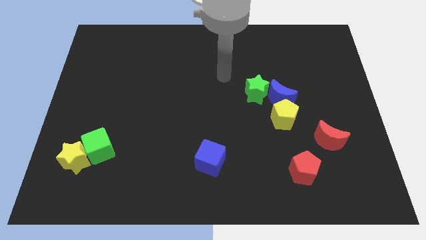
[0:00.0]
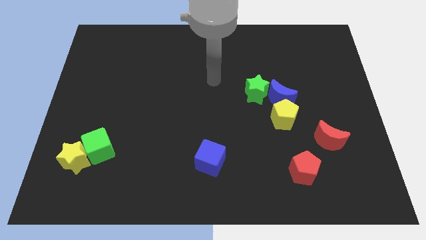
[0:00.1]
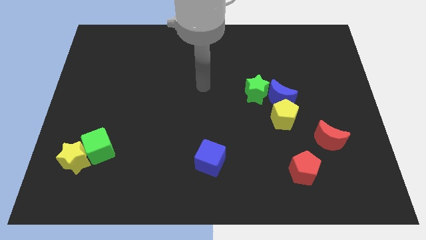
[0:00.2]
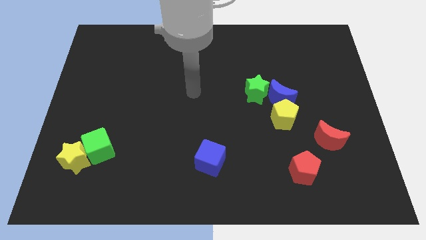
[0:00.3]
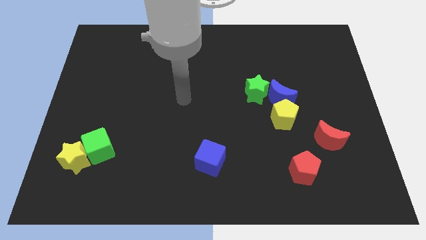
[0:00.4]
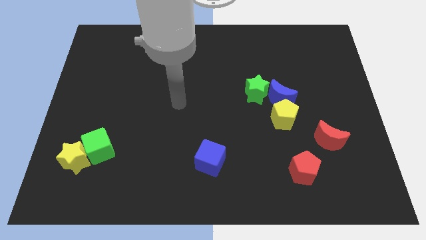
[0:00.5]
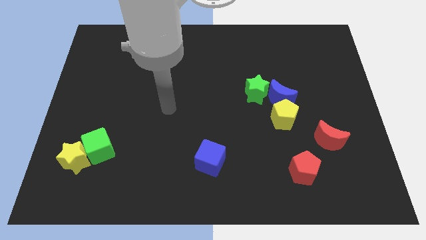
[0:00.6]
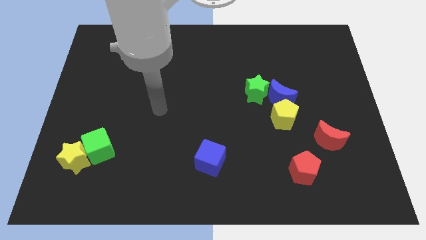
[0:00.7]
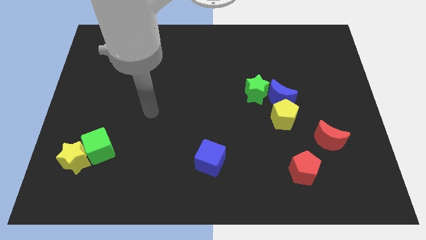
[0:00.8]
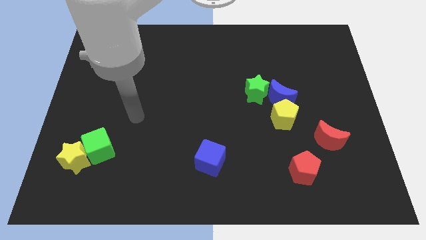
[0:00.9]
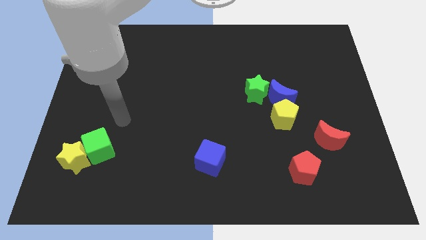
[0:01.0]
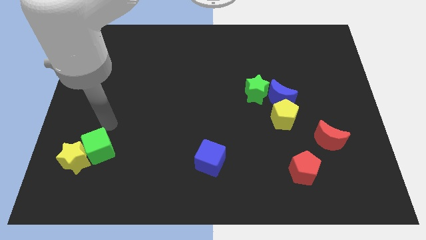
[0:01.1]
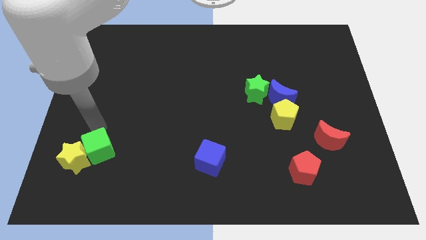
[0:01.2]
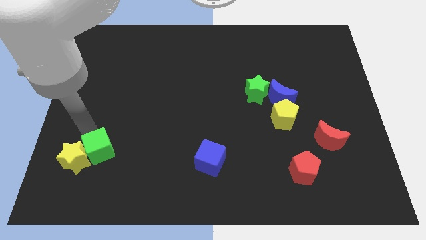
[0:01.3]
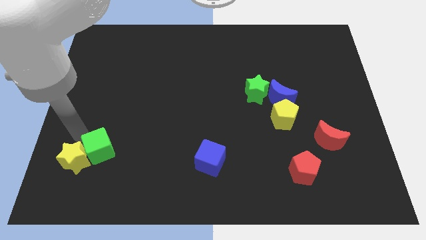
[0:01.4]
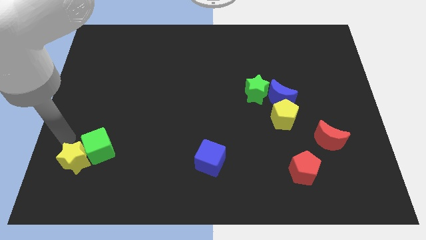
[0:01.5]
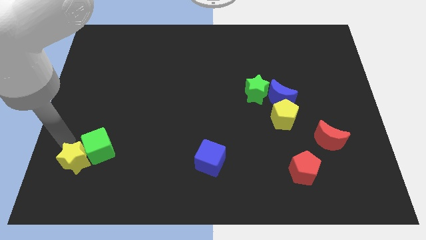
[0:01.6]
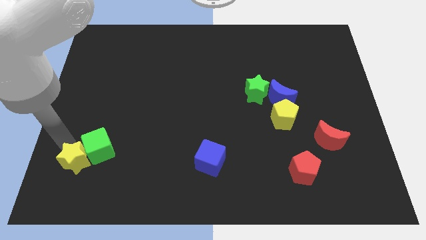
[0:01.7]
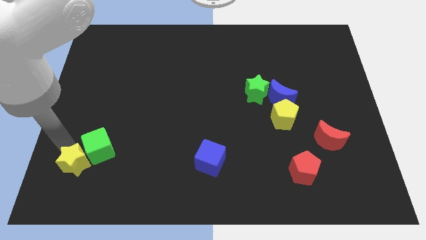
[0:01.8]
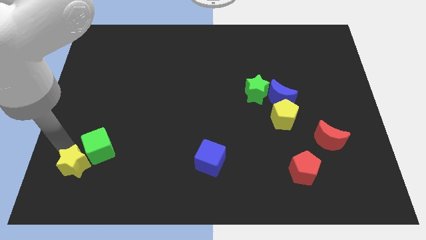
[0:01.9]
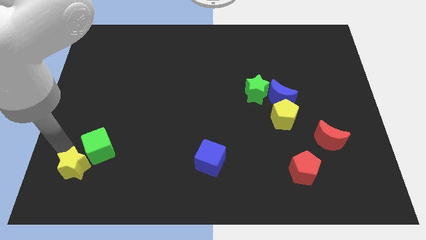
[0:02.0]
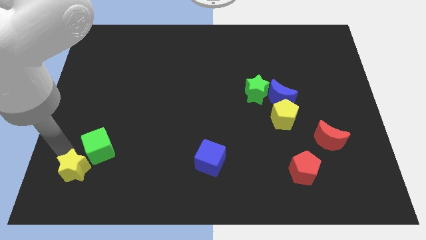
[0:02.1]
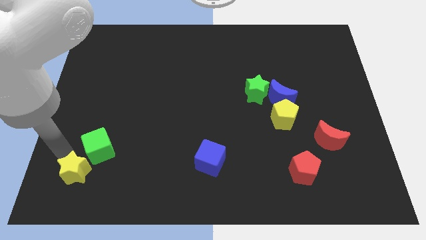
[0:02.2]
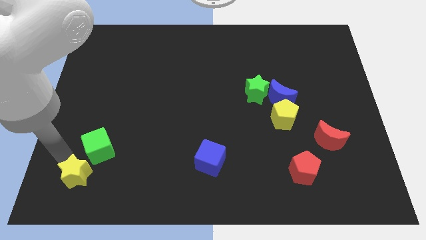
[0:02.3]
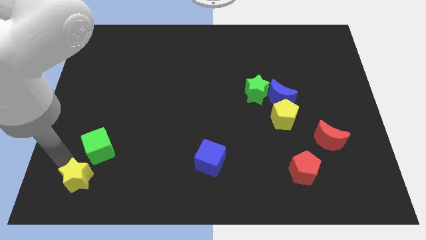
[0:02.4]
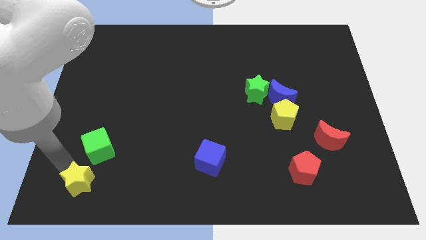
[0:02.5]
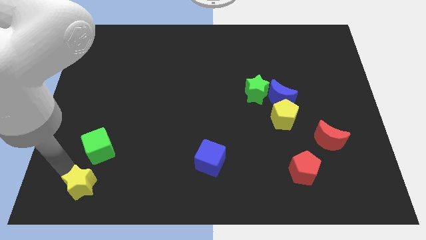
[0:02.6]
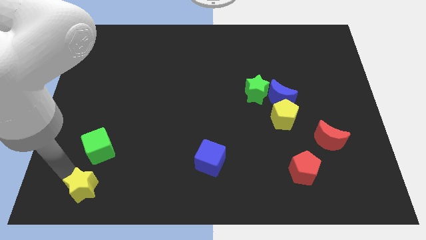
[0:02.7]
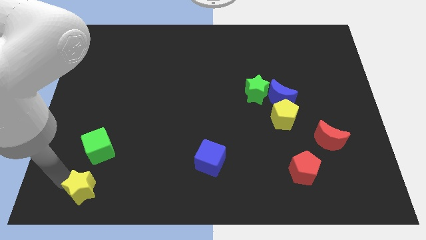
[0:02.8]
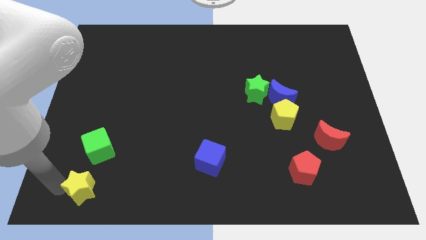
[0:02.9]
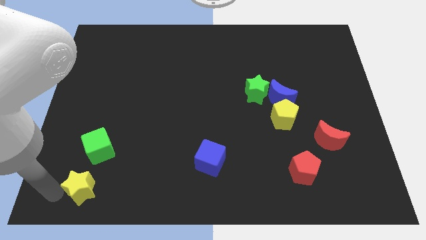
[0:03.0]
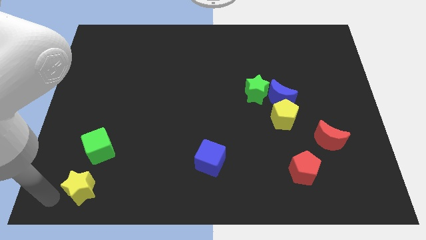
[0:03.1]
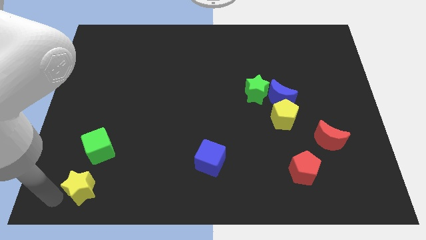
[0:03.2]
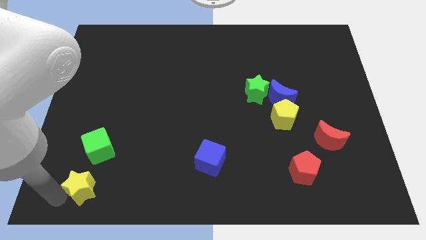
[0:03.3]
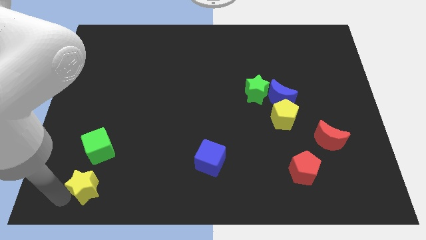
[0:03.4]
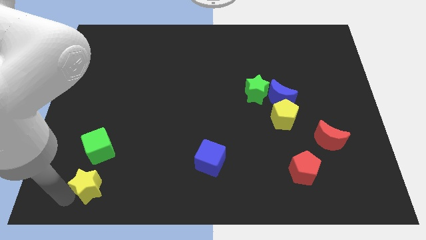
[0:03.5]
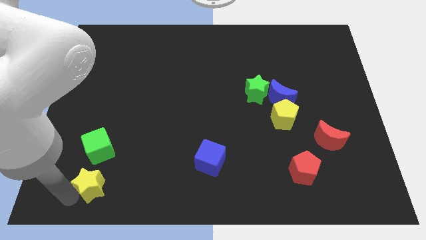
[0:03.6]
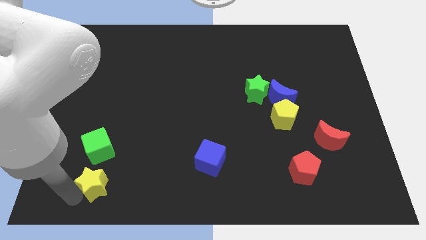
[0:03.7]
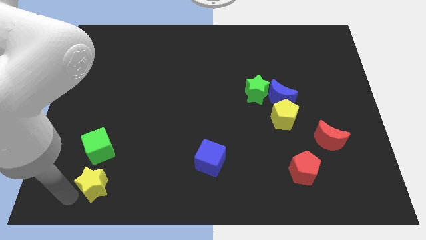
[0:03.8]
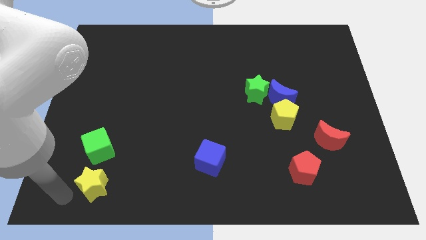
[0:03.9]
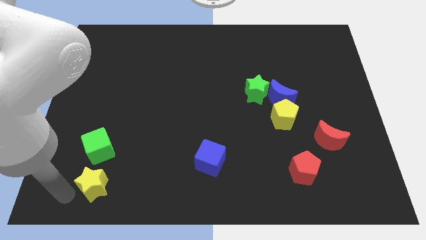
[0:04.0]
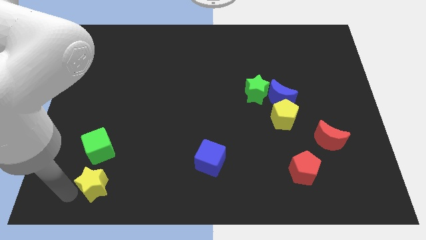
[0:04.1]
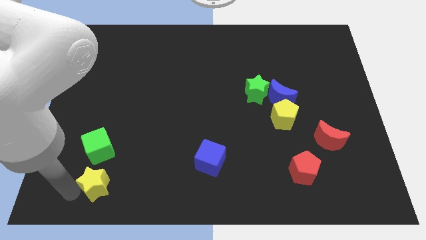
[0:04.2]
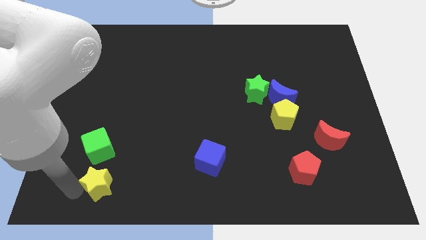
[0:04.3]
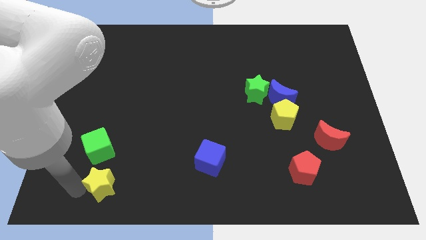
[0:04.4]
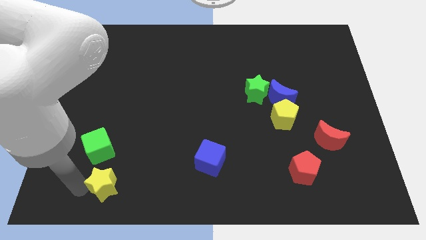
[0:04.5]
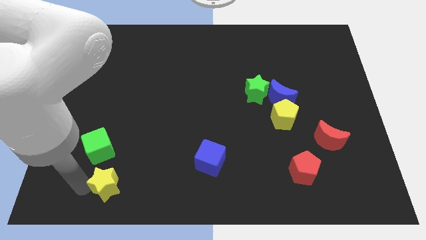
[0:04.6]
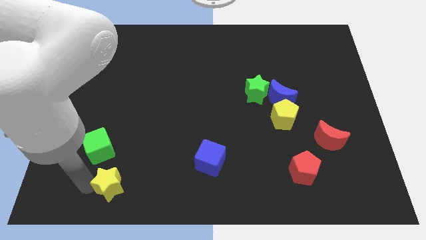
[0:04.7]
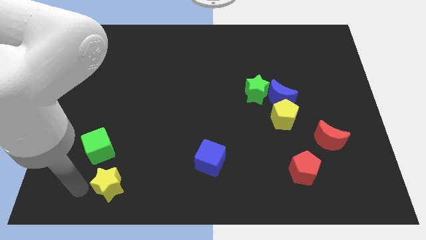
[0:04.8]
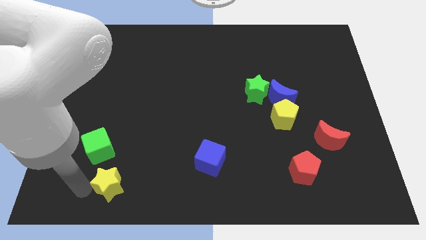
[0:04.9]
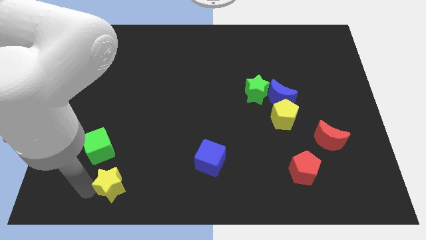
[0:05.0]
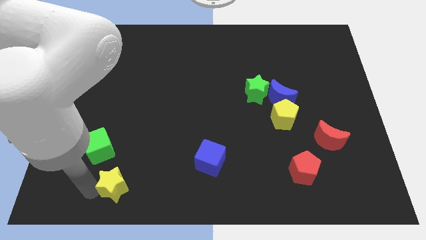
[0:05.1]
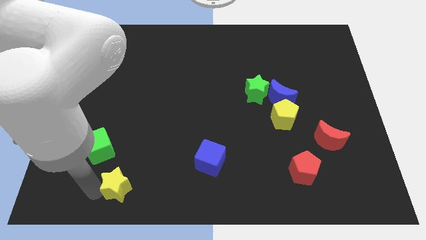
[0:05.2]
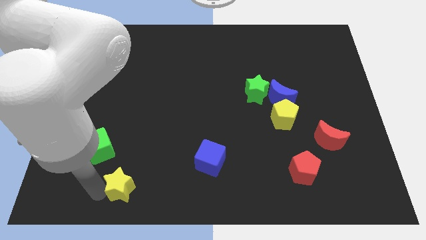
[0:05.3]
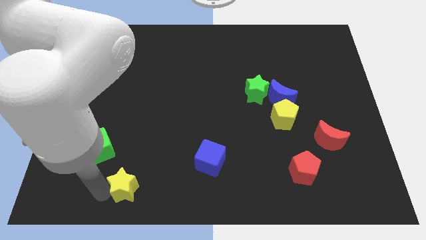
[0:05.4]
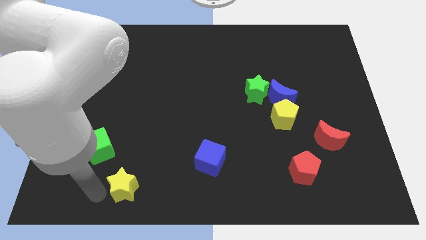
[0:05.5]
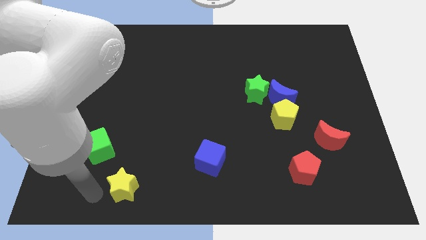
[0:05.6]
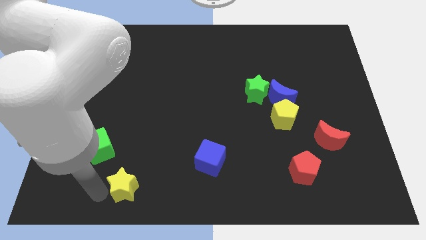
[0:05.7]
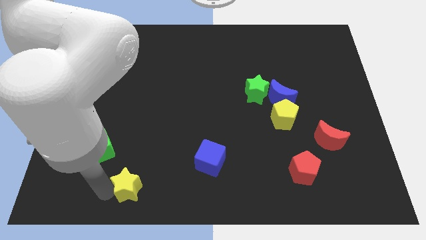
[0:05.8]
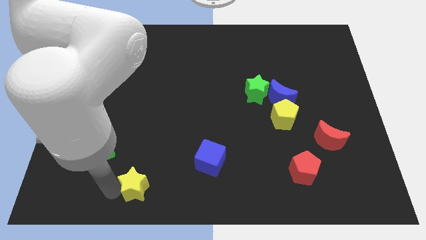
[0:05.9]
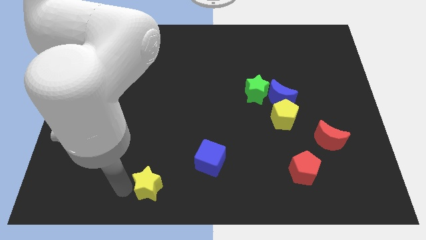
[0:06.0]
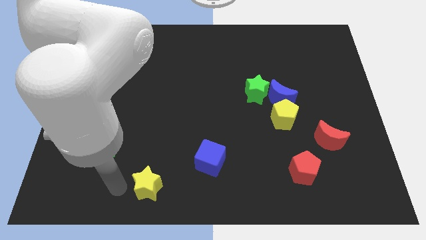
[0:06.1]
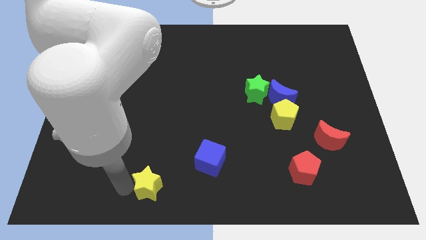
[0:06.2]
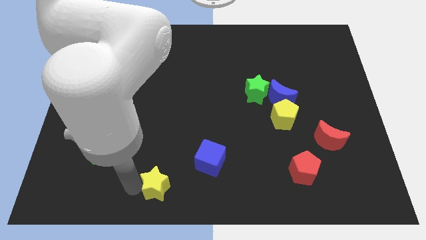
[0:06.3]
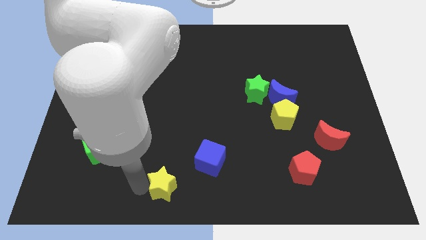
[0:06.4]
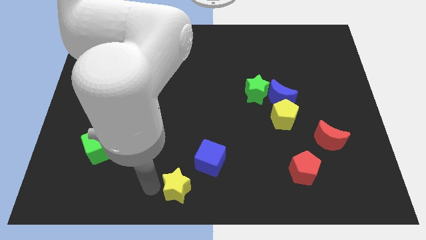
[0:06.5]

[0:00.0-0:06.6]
slide the yellow star to the right

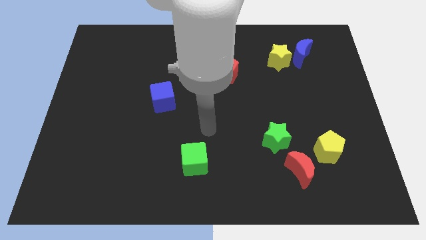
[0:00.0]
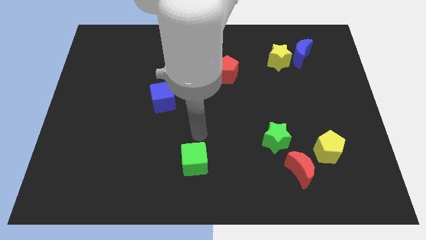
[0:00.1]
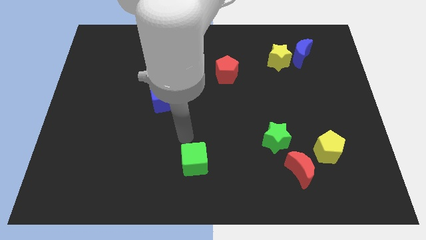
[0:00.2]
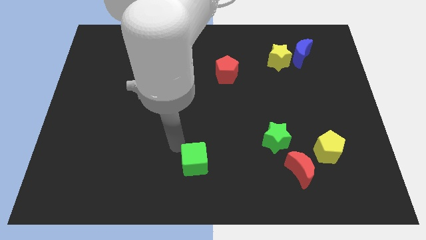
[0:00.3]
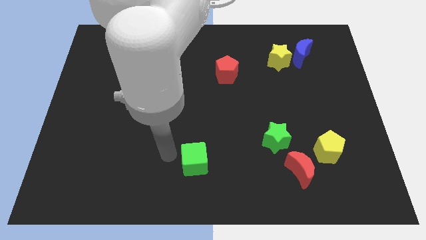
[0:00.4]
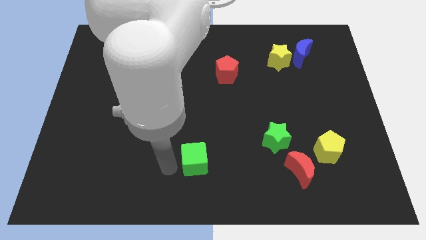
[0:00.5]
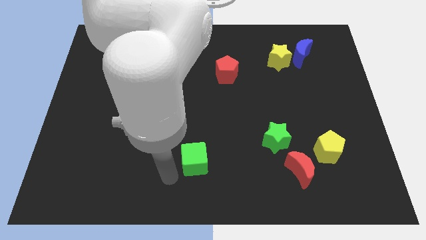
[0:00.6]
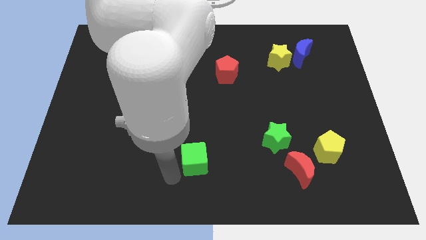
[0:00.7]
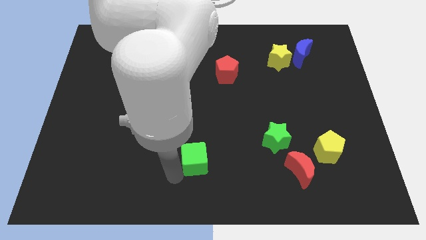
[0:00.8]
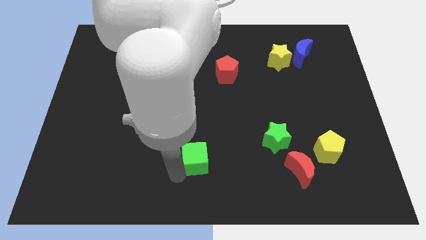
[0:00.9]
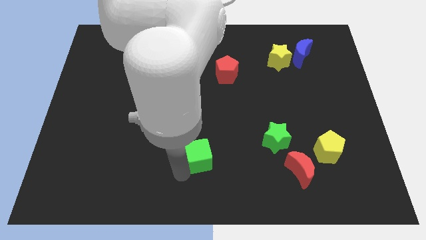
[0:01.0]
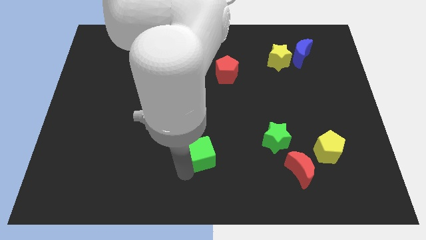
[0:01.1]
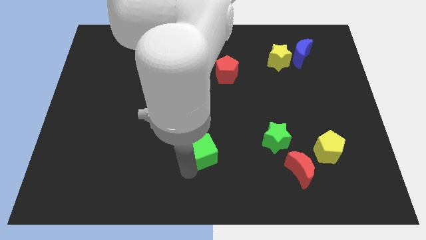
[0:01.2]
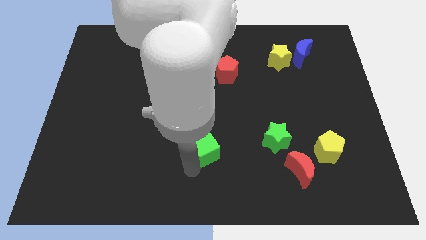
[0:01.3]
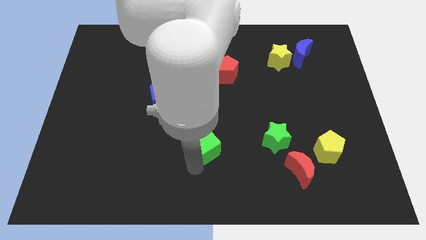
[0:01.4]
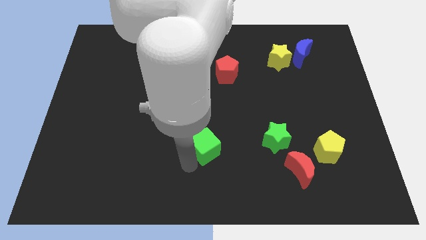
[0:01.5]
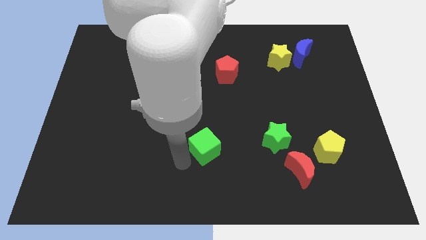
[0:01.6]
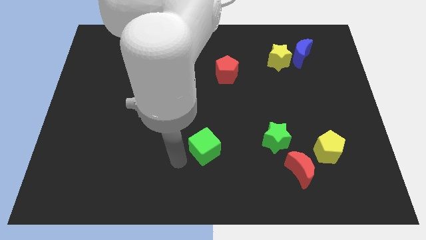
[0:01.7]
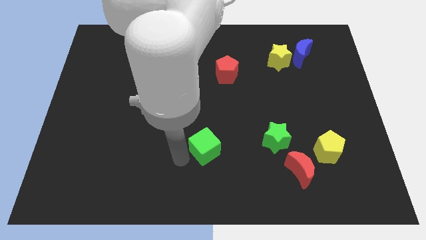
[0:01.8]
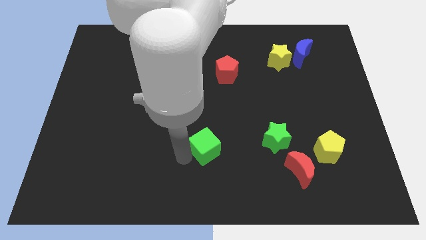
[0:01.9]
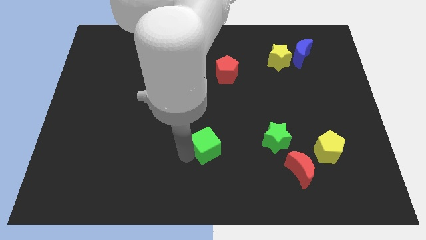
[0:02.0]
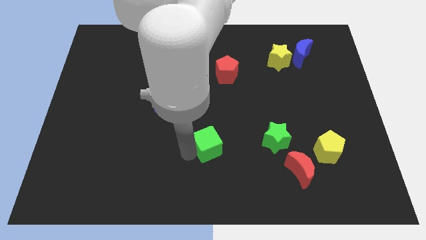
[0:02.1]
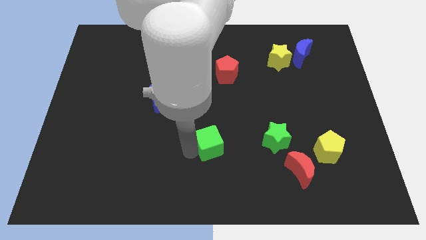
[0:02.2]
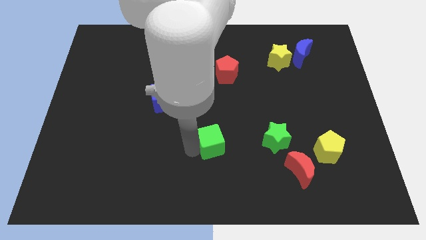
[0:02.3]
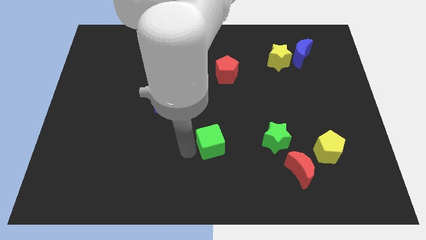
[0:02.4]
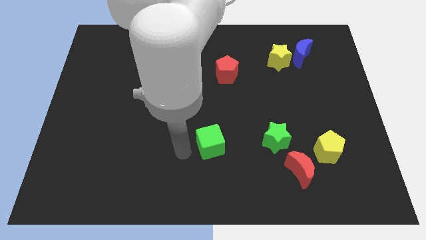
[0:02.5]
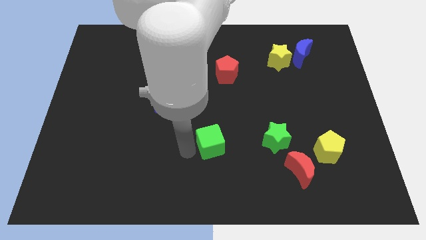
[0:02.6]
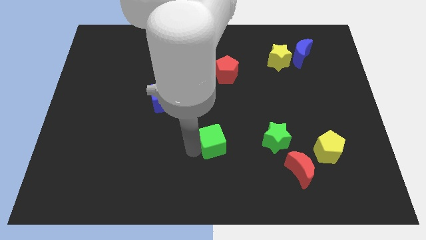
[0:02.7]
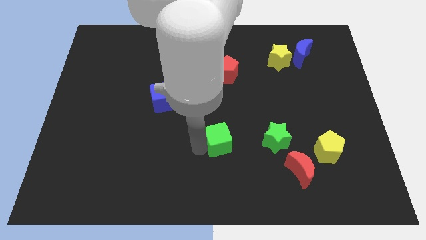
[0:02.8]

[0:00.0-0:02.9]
slightly push the green cube diagonally up and right
